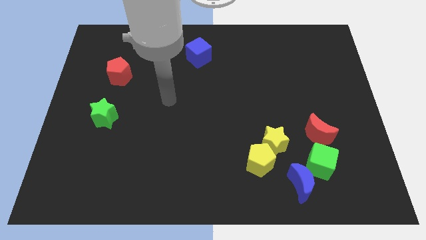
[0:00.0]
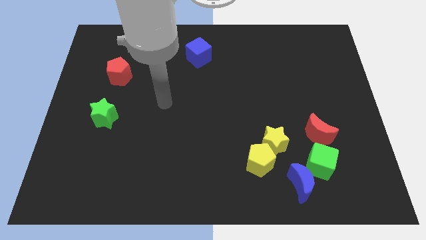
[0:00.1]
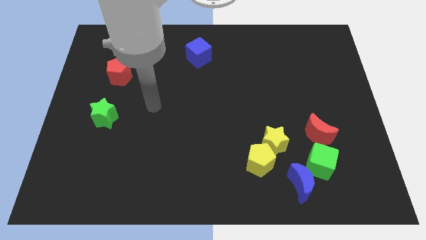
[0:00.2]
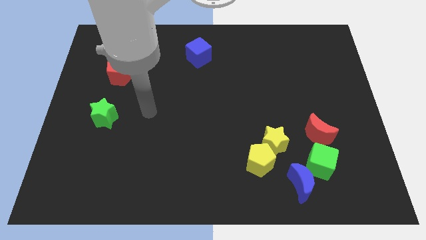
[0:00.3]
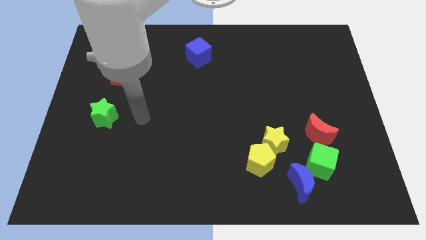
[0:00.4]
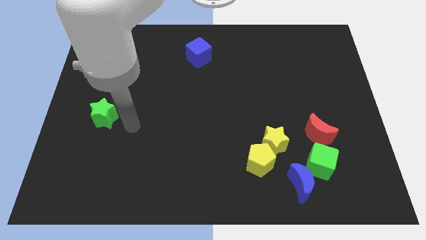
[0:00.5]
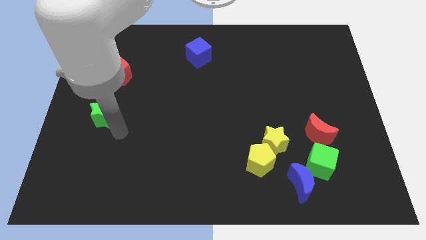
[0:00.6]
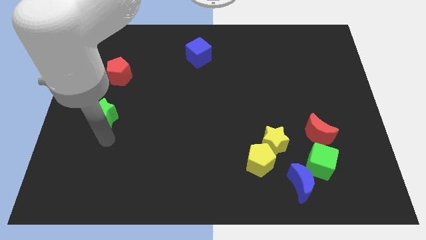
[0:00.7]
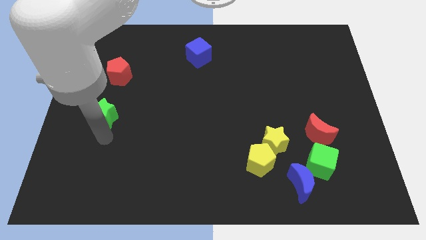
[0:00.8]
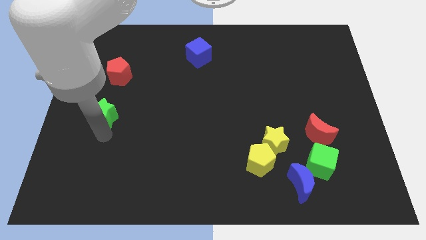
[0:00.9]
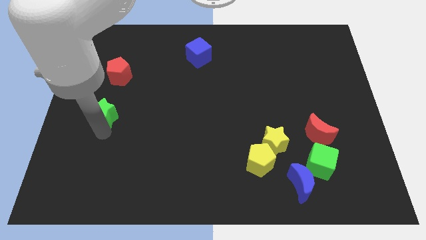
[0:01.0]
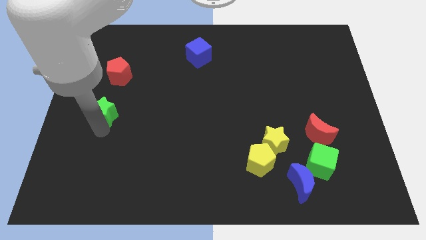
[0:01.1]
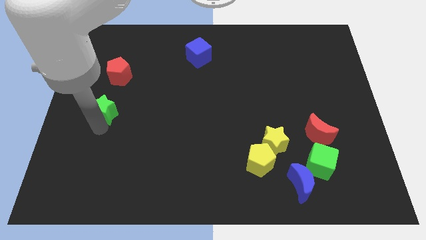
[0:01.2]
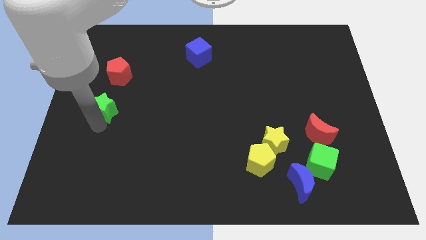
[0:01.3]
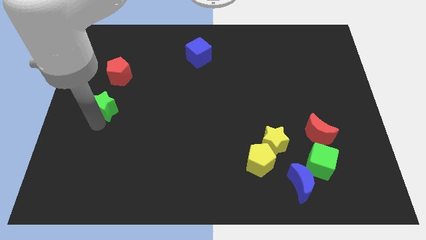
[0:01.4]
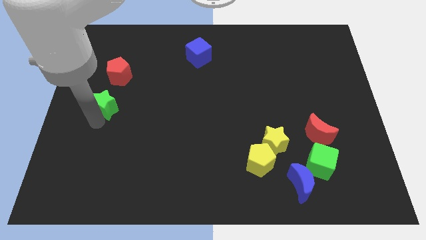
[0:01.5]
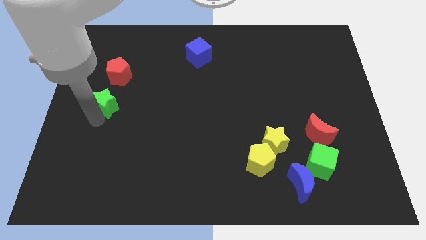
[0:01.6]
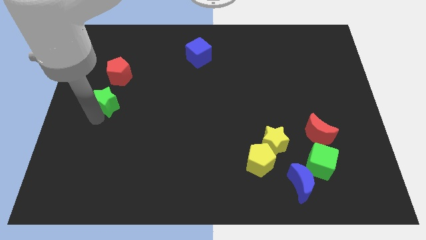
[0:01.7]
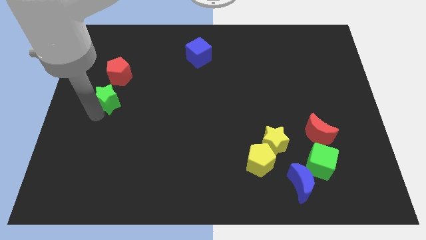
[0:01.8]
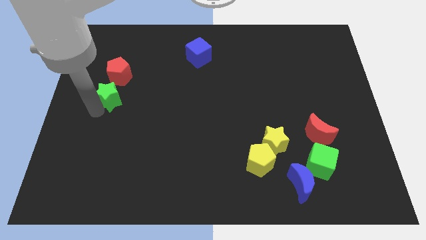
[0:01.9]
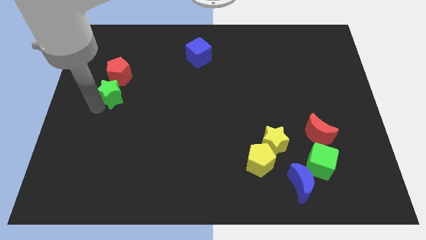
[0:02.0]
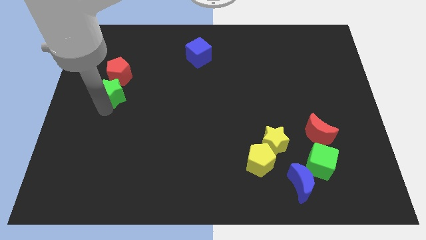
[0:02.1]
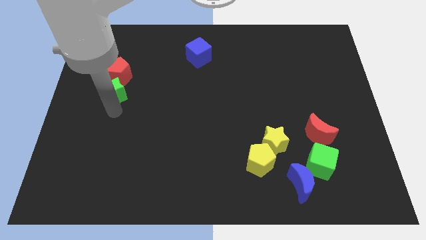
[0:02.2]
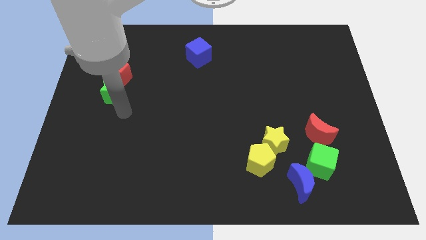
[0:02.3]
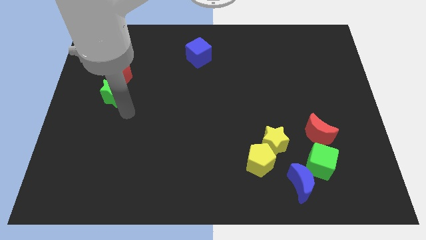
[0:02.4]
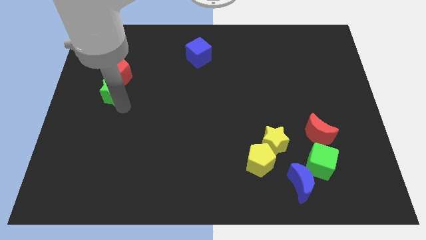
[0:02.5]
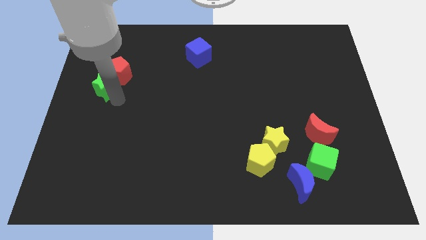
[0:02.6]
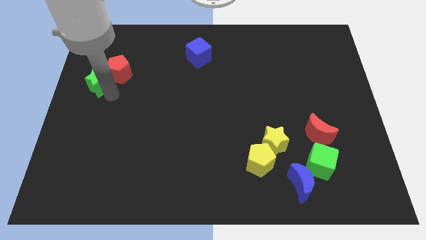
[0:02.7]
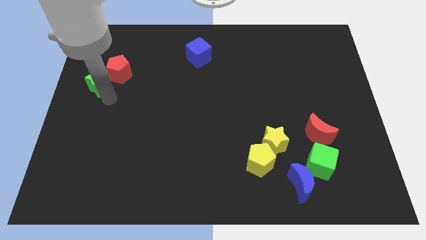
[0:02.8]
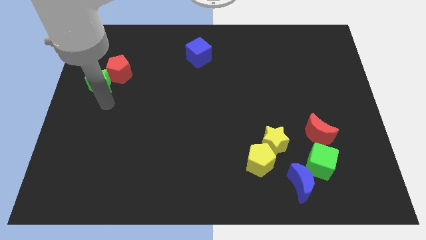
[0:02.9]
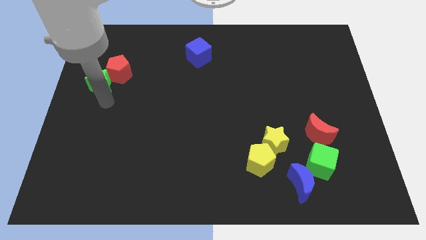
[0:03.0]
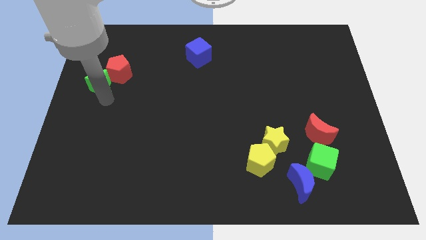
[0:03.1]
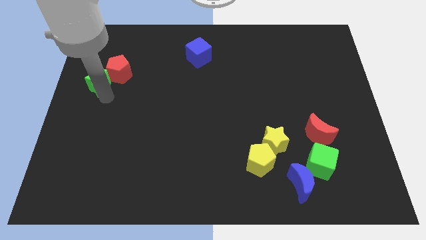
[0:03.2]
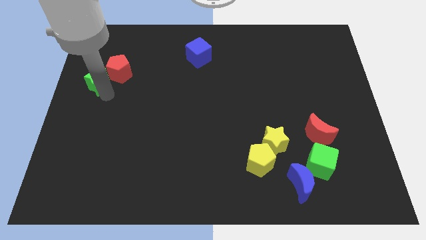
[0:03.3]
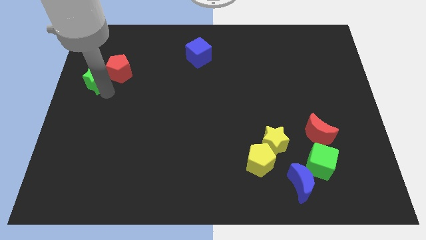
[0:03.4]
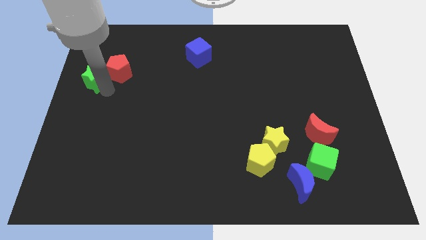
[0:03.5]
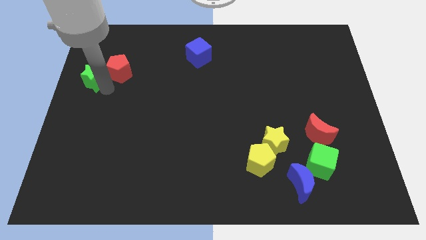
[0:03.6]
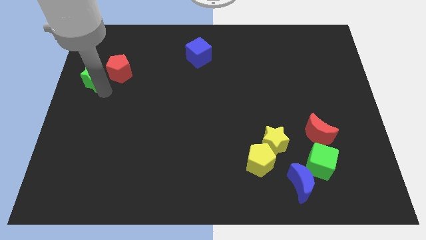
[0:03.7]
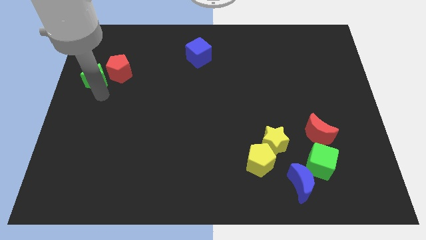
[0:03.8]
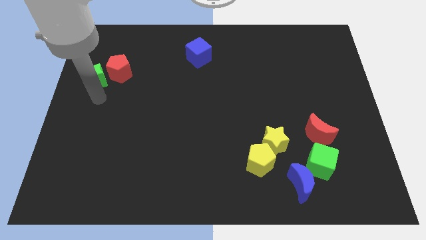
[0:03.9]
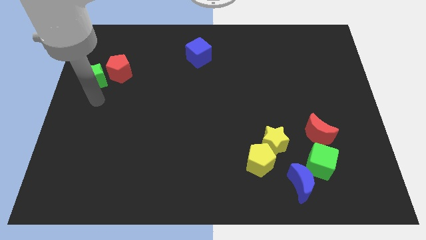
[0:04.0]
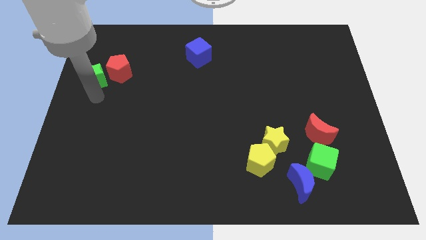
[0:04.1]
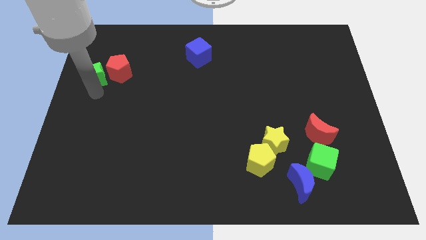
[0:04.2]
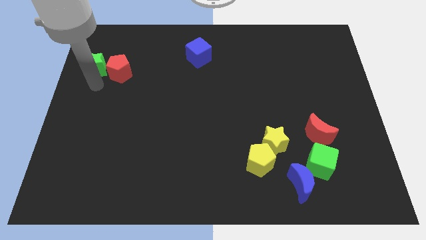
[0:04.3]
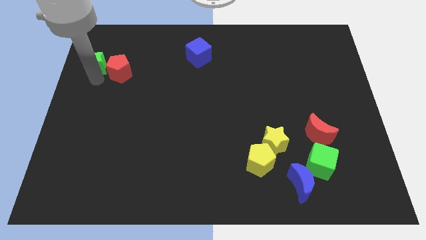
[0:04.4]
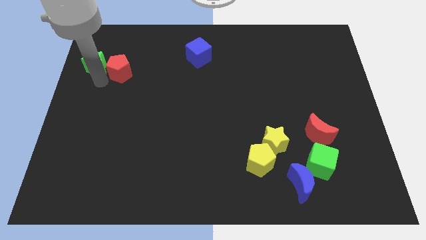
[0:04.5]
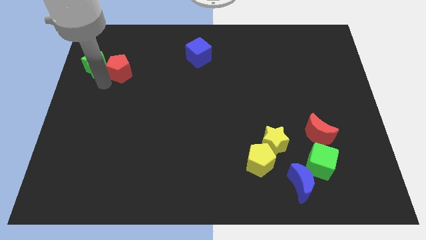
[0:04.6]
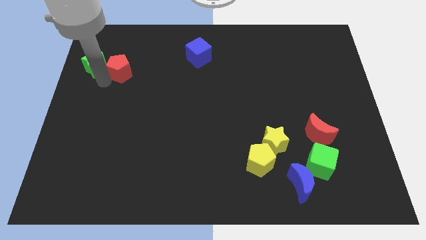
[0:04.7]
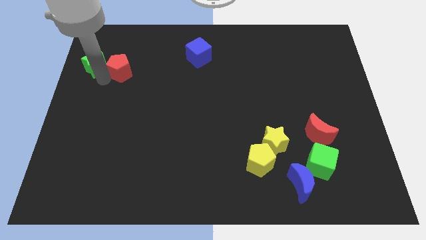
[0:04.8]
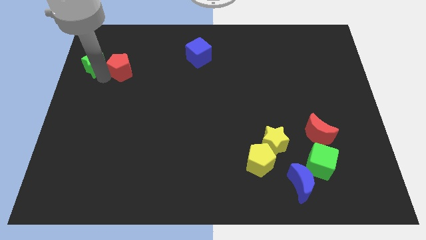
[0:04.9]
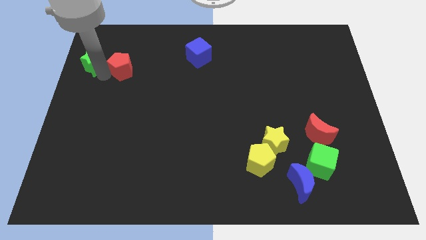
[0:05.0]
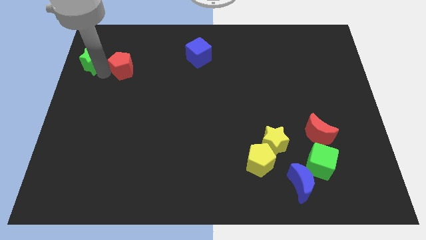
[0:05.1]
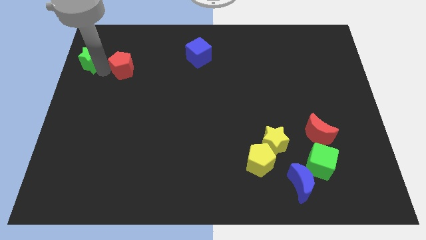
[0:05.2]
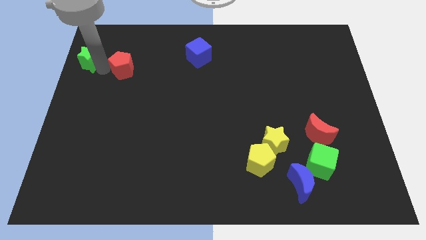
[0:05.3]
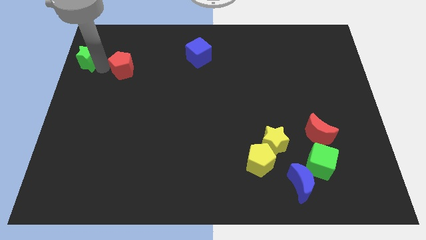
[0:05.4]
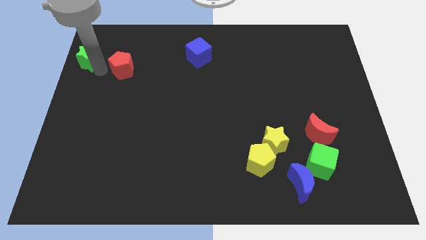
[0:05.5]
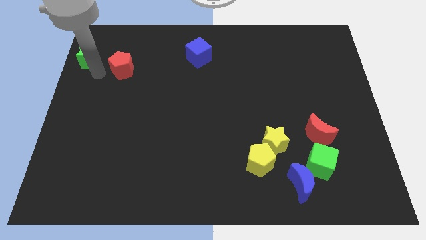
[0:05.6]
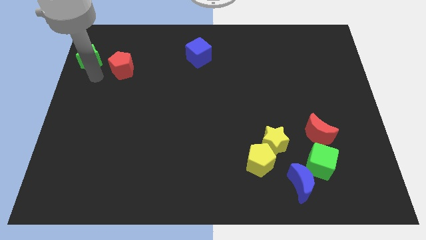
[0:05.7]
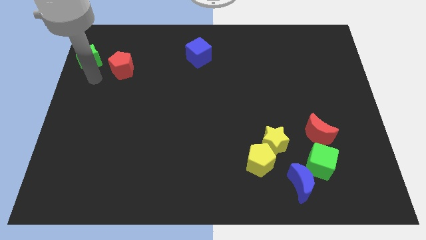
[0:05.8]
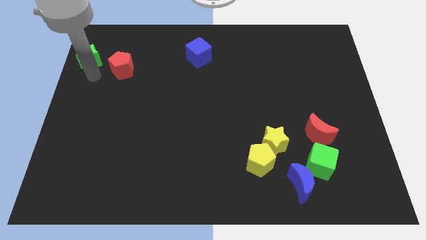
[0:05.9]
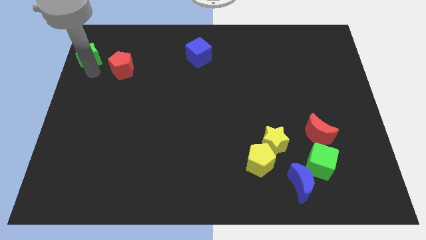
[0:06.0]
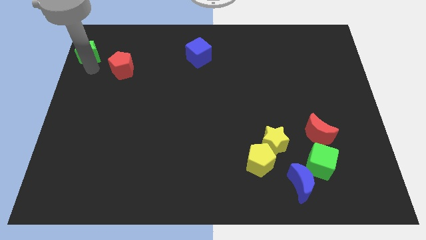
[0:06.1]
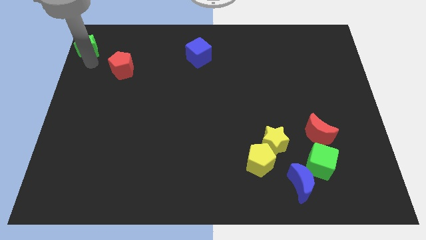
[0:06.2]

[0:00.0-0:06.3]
move the green star to the upper left corner

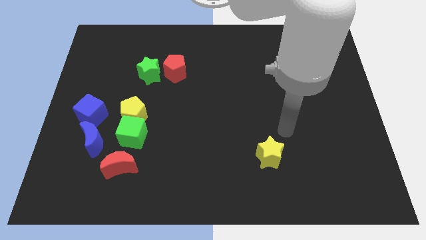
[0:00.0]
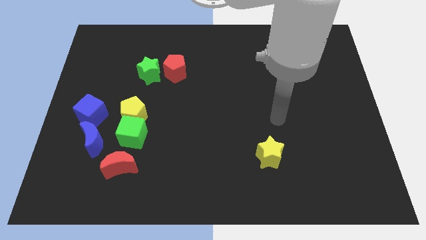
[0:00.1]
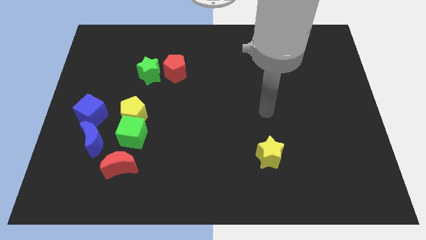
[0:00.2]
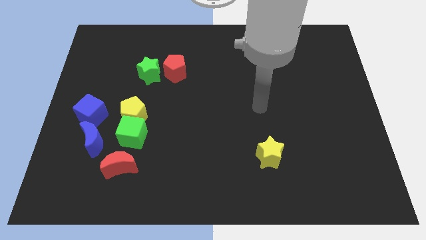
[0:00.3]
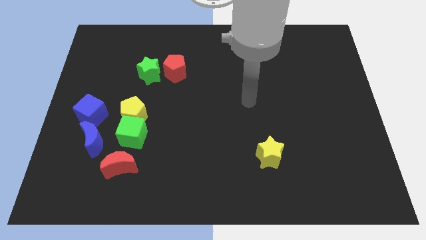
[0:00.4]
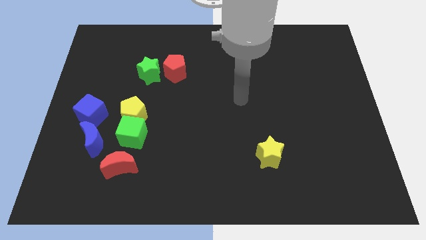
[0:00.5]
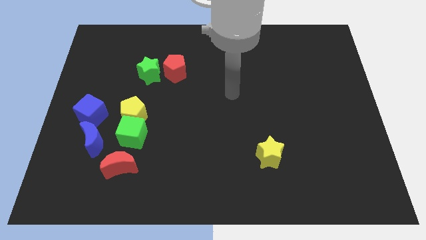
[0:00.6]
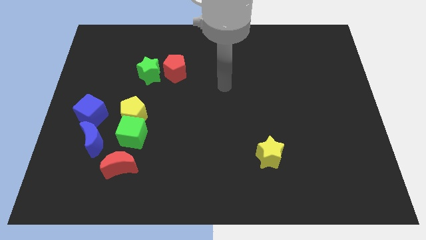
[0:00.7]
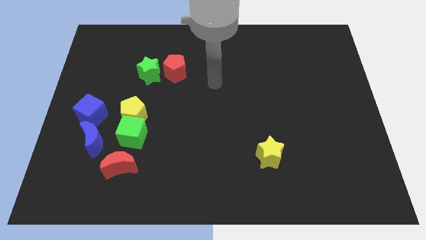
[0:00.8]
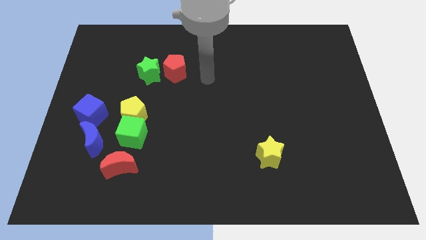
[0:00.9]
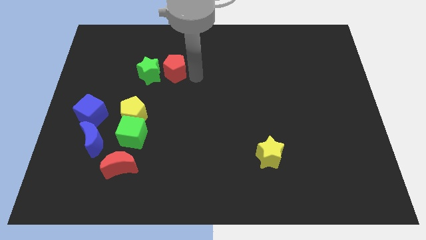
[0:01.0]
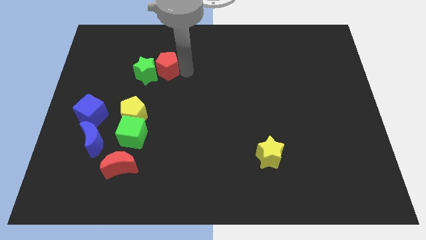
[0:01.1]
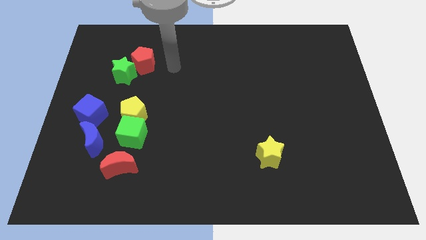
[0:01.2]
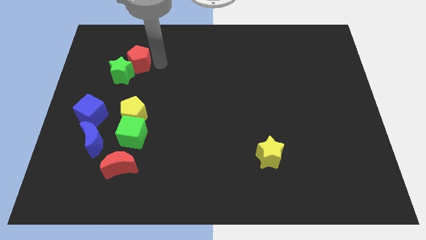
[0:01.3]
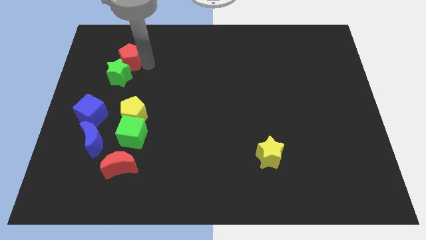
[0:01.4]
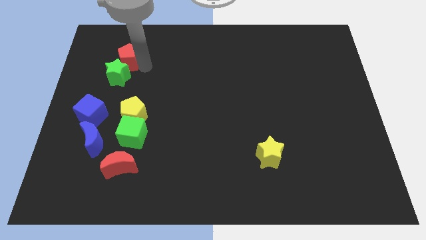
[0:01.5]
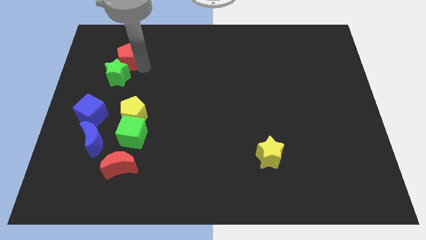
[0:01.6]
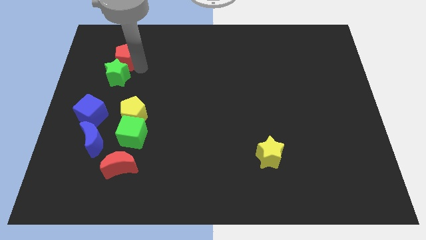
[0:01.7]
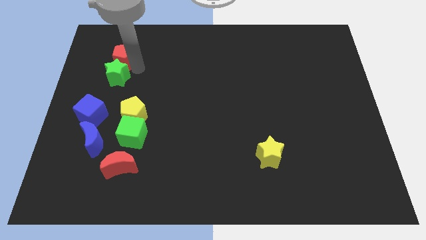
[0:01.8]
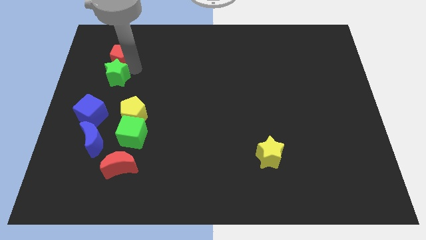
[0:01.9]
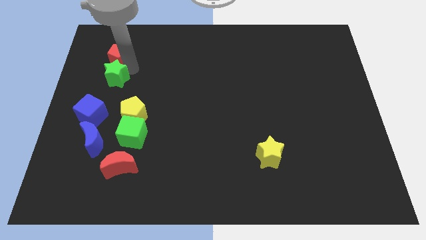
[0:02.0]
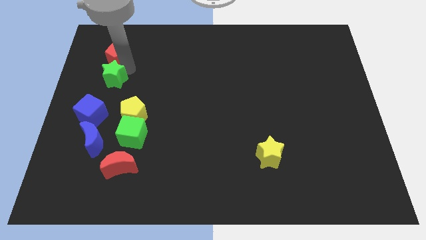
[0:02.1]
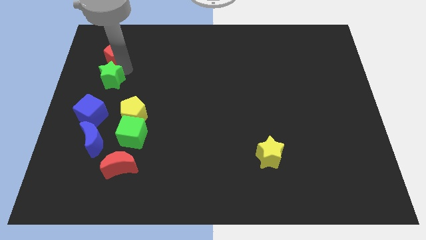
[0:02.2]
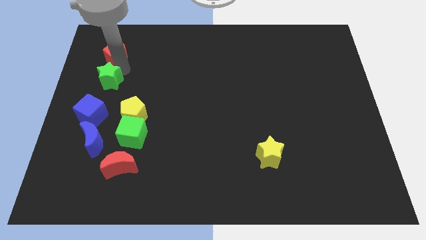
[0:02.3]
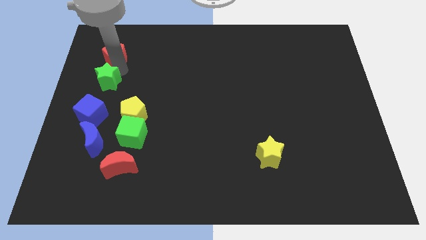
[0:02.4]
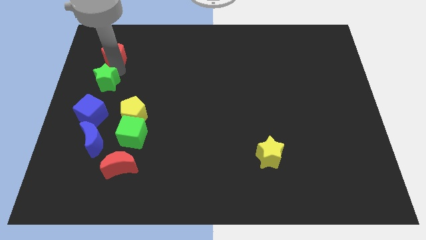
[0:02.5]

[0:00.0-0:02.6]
put the green star to the left side
